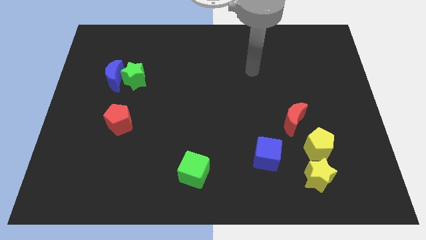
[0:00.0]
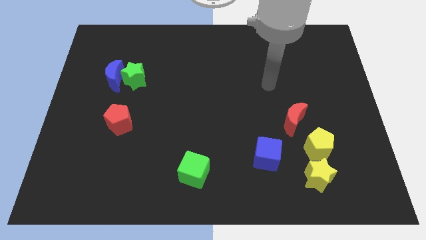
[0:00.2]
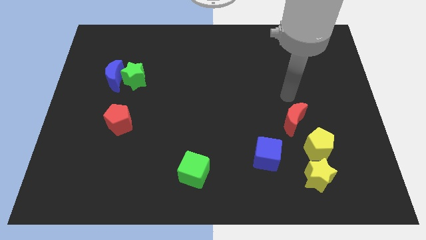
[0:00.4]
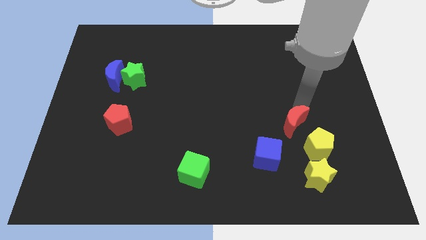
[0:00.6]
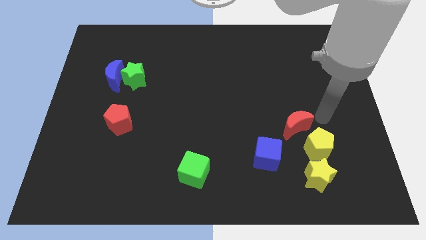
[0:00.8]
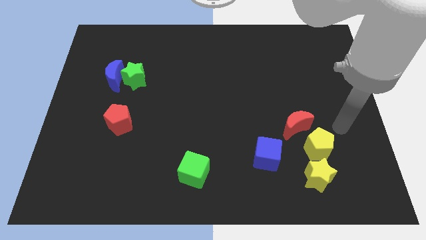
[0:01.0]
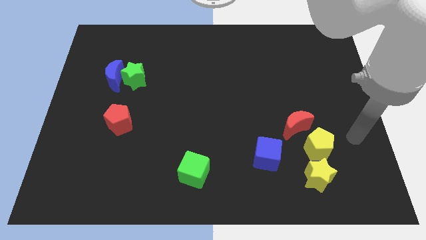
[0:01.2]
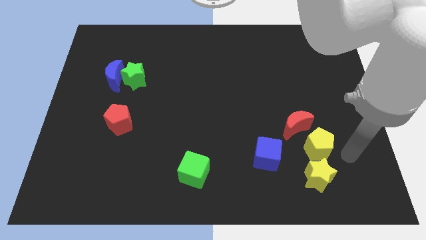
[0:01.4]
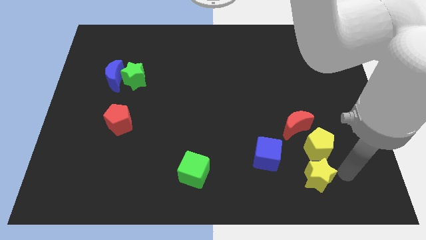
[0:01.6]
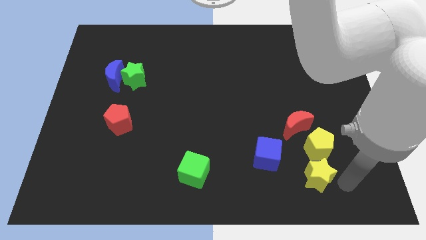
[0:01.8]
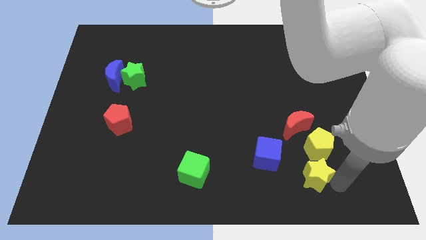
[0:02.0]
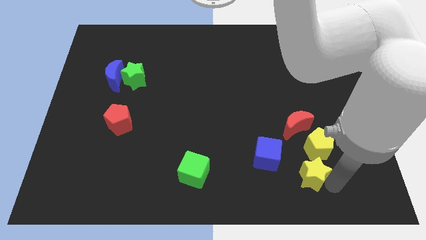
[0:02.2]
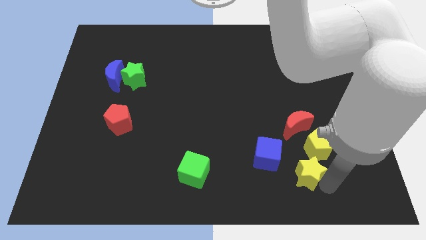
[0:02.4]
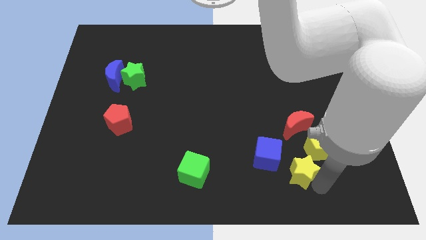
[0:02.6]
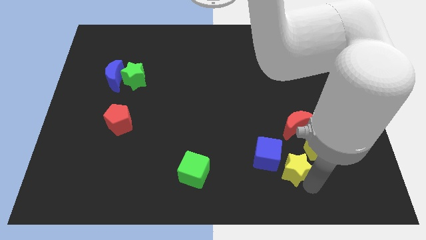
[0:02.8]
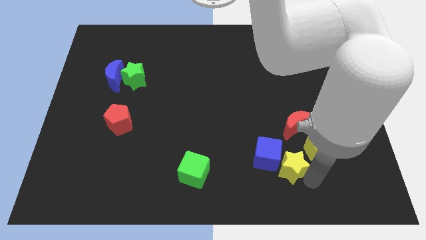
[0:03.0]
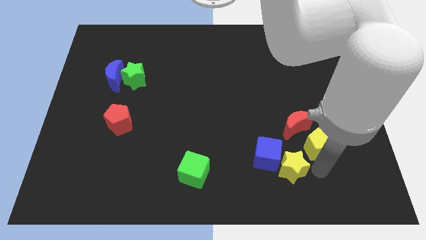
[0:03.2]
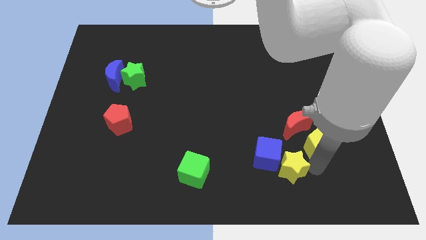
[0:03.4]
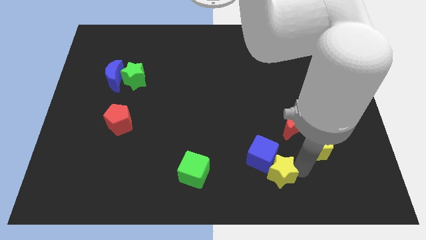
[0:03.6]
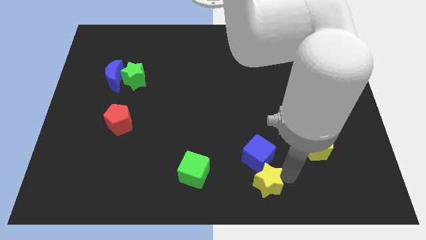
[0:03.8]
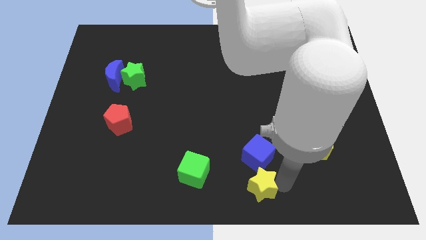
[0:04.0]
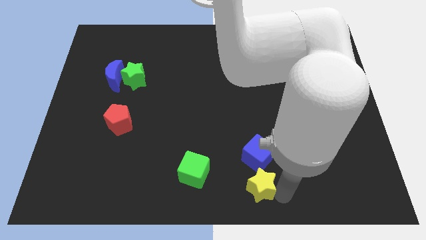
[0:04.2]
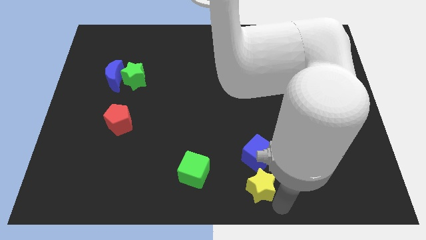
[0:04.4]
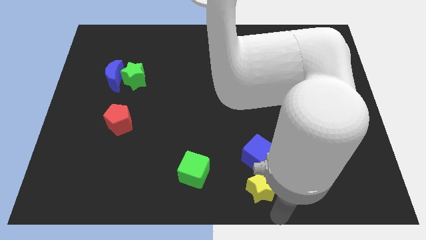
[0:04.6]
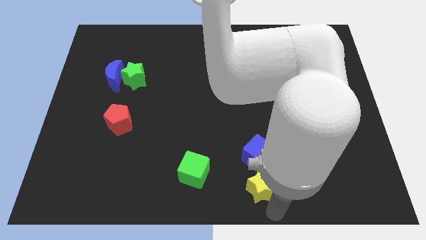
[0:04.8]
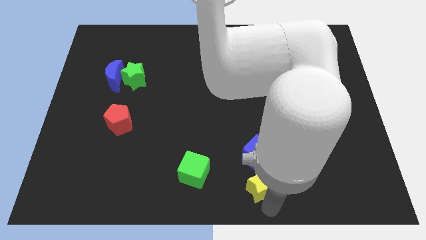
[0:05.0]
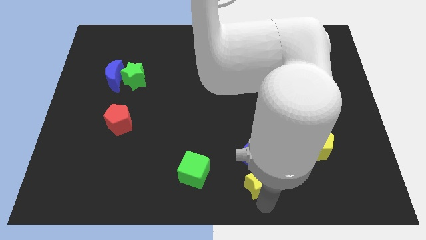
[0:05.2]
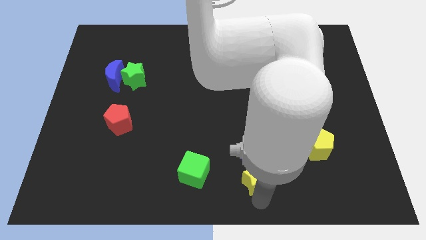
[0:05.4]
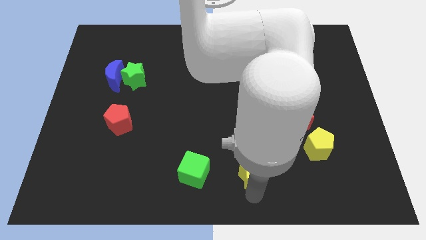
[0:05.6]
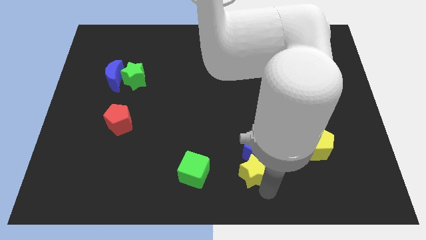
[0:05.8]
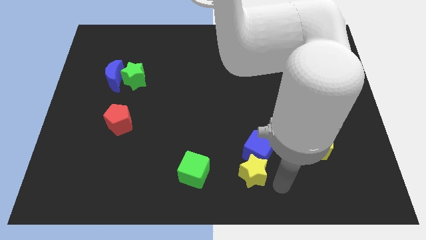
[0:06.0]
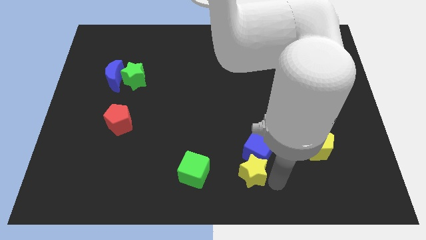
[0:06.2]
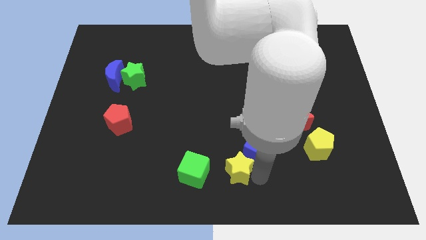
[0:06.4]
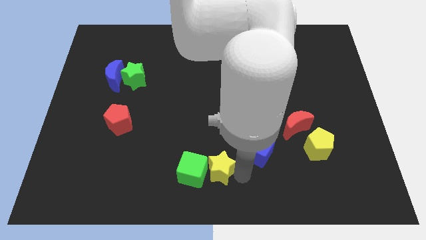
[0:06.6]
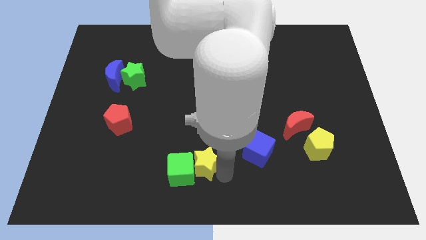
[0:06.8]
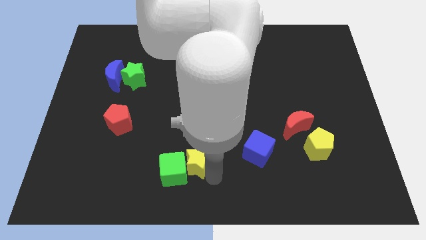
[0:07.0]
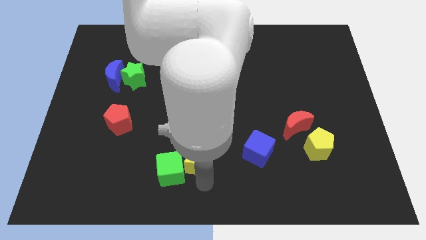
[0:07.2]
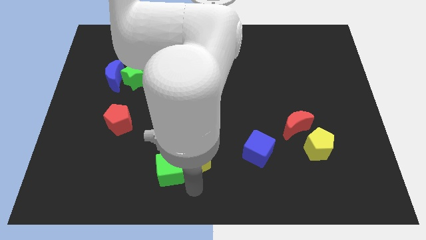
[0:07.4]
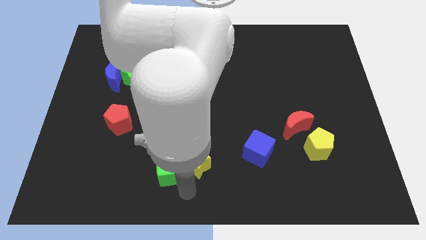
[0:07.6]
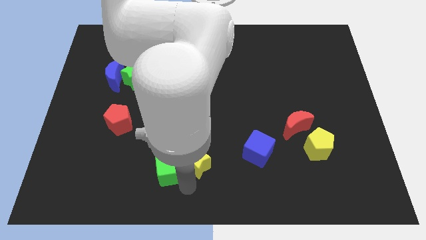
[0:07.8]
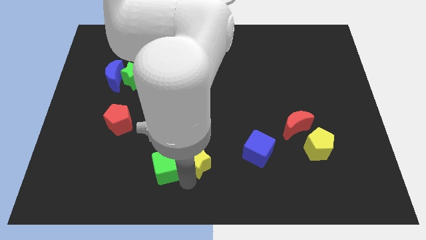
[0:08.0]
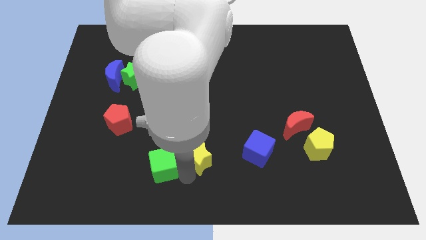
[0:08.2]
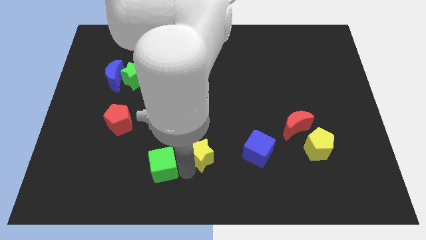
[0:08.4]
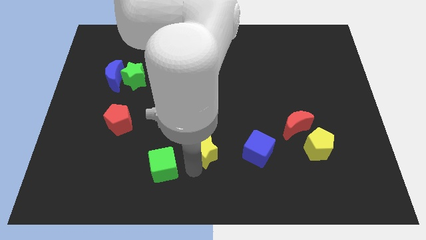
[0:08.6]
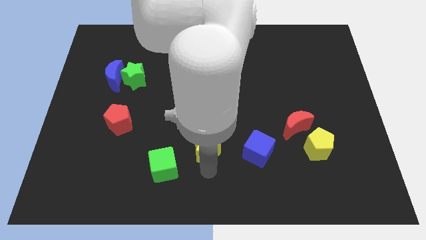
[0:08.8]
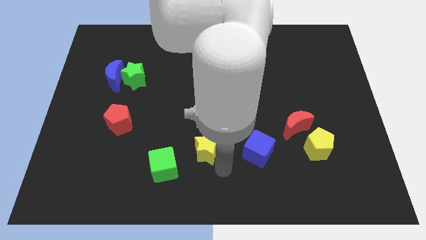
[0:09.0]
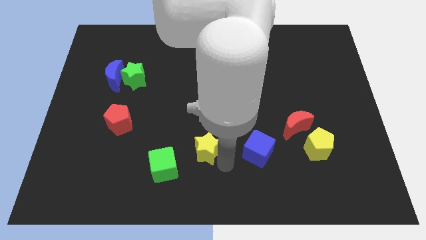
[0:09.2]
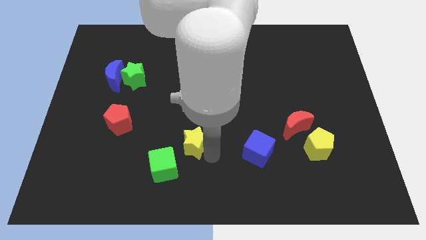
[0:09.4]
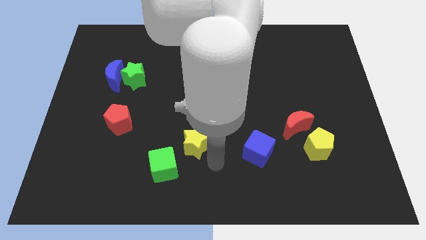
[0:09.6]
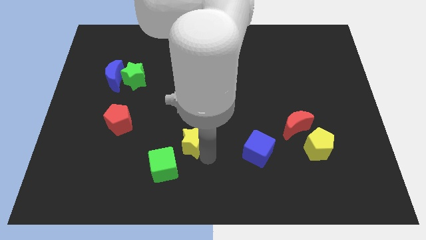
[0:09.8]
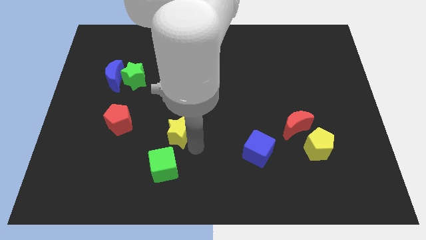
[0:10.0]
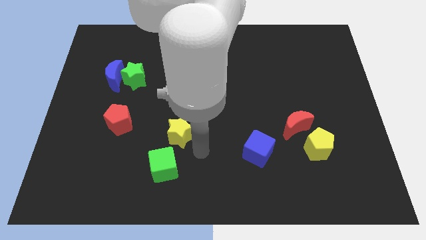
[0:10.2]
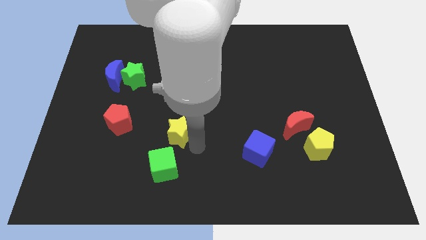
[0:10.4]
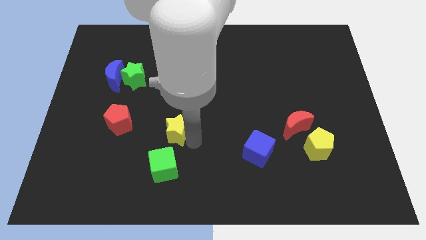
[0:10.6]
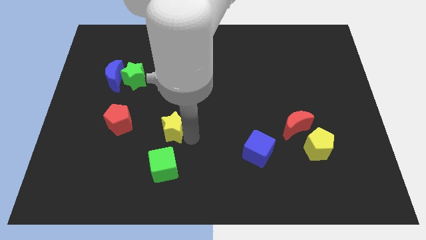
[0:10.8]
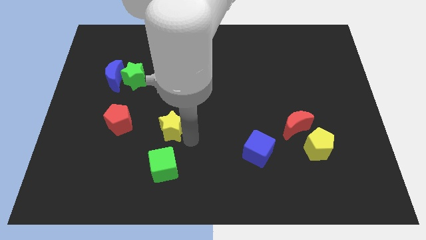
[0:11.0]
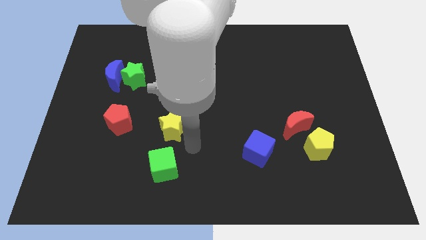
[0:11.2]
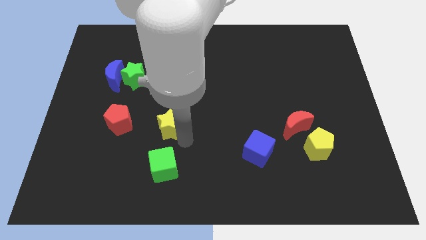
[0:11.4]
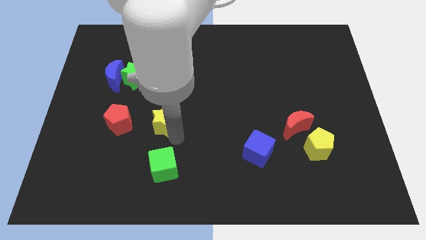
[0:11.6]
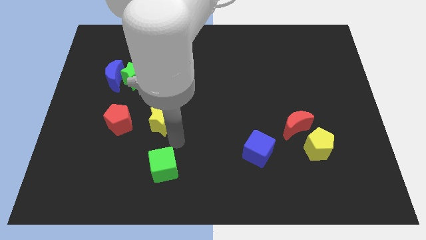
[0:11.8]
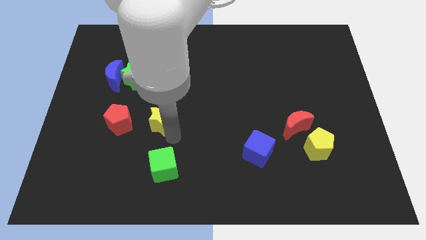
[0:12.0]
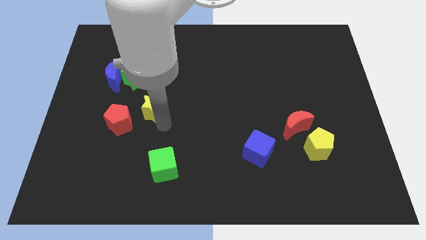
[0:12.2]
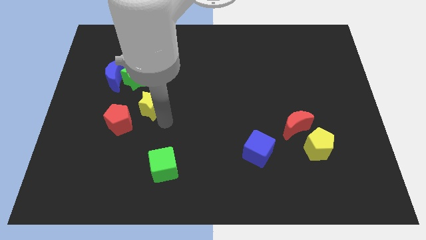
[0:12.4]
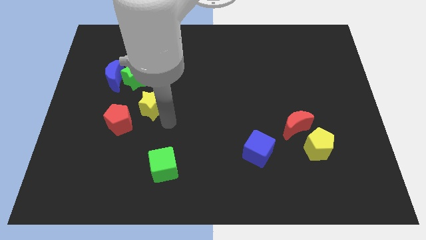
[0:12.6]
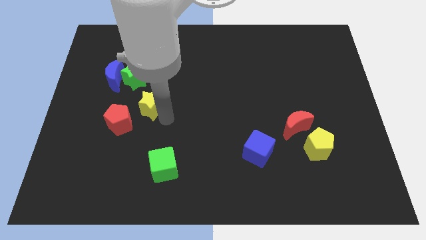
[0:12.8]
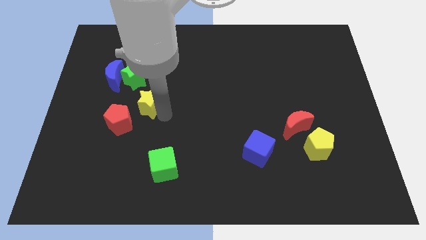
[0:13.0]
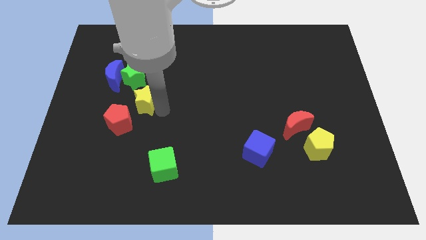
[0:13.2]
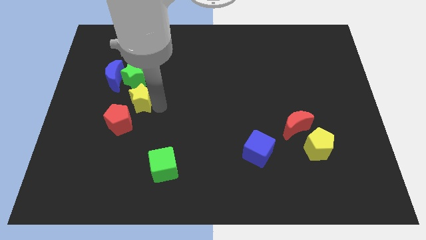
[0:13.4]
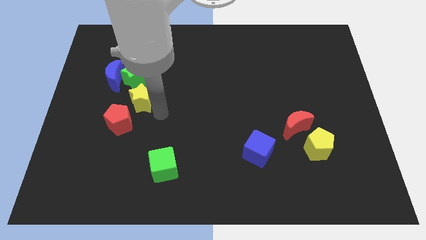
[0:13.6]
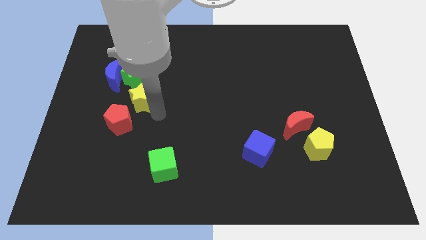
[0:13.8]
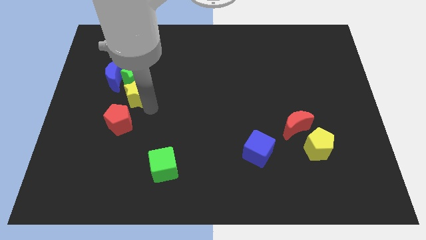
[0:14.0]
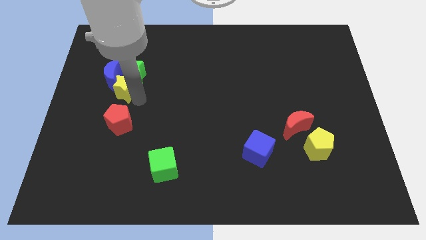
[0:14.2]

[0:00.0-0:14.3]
push the yellow star towards the blue moon
